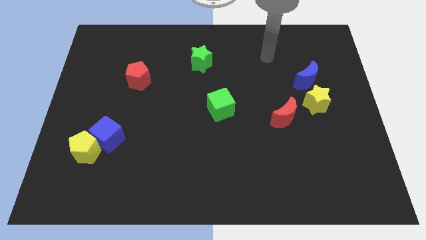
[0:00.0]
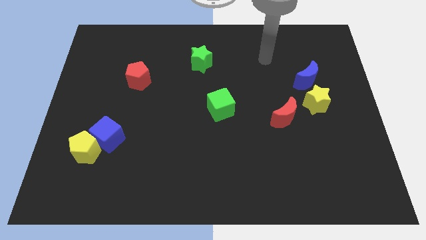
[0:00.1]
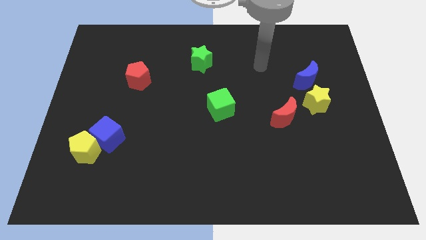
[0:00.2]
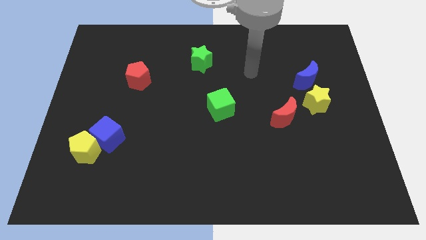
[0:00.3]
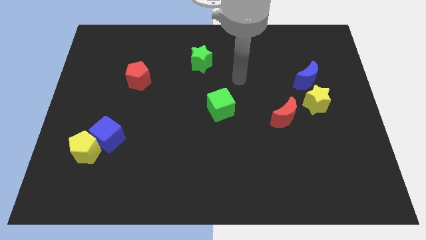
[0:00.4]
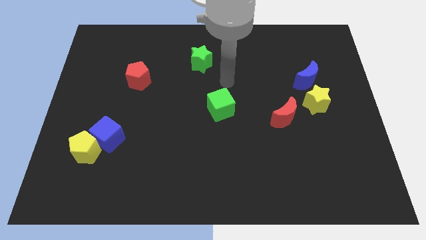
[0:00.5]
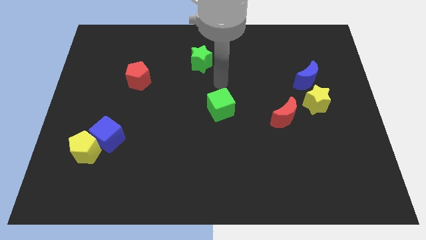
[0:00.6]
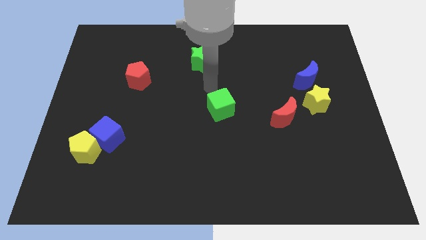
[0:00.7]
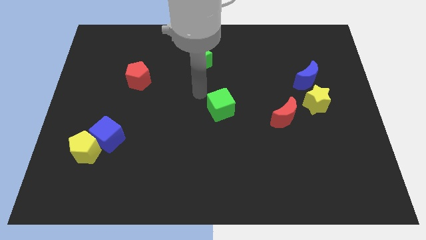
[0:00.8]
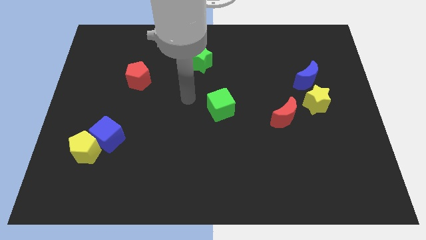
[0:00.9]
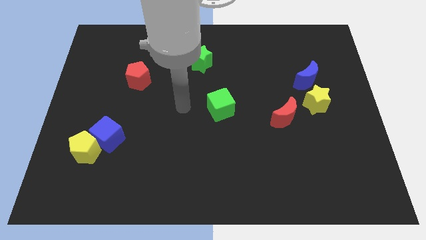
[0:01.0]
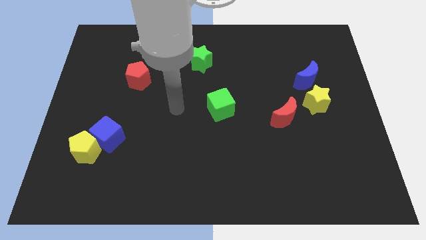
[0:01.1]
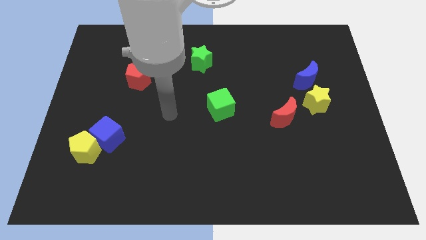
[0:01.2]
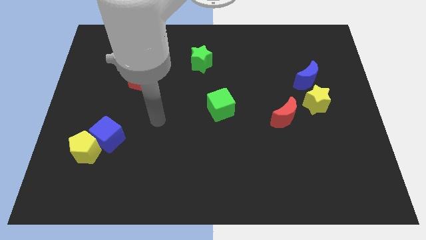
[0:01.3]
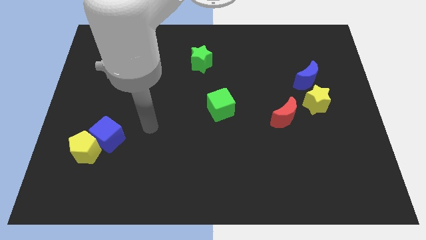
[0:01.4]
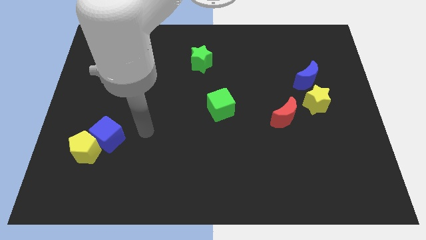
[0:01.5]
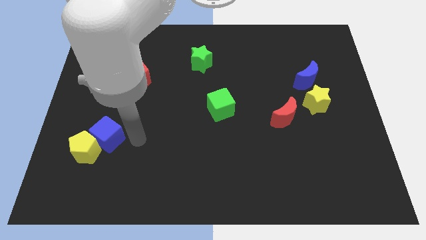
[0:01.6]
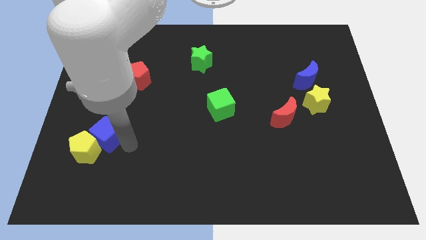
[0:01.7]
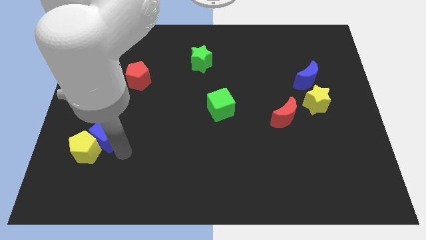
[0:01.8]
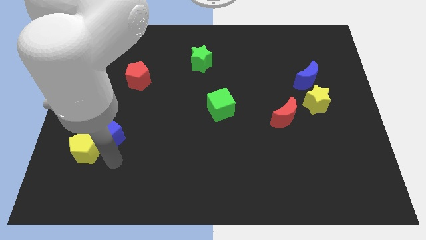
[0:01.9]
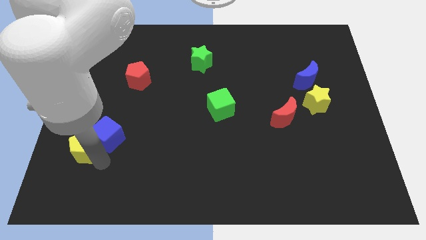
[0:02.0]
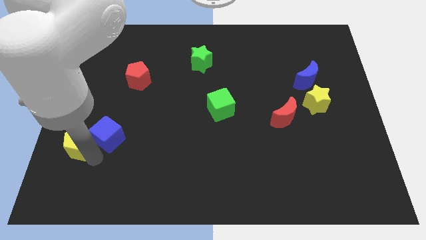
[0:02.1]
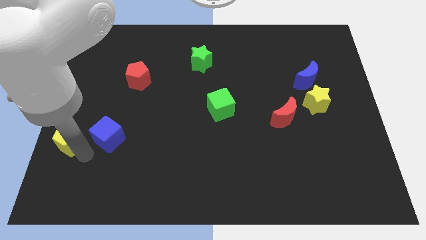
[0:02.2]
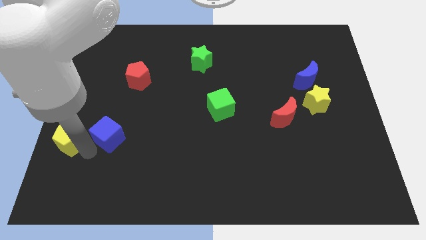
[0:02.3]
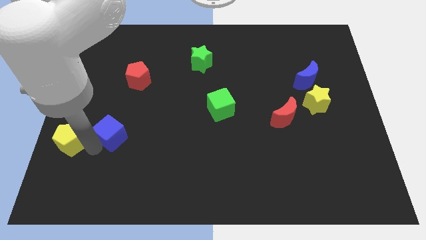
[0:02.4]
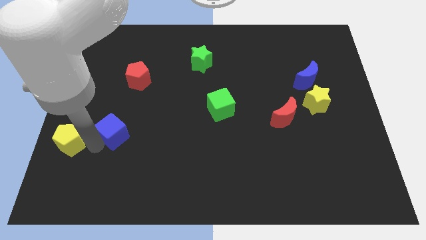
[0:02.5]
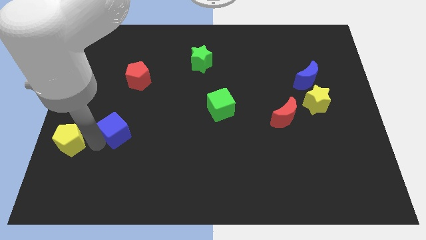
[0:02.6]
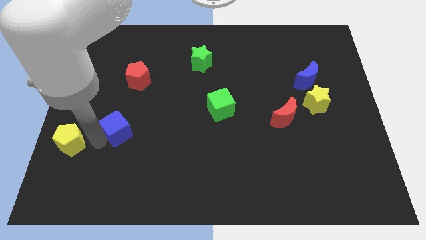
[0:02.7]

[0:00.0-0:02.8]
pull the blue cube apart from the yellow pentagon

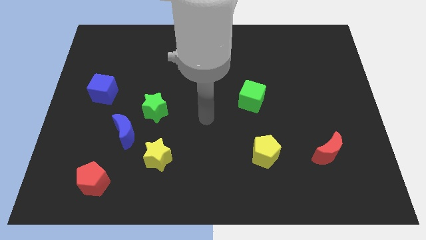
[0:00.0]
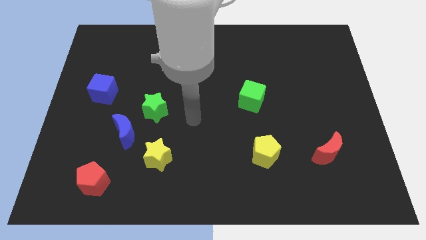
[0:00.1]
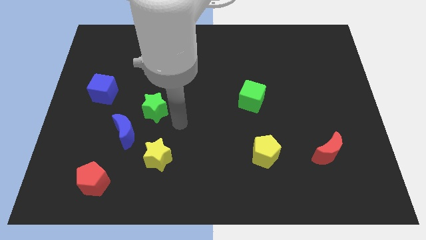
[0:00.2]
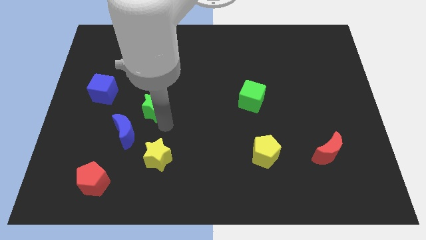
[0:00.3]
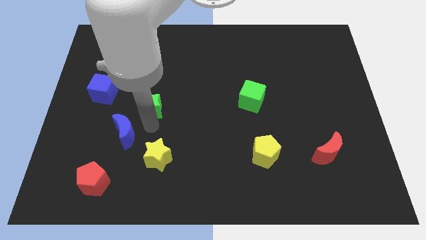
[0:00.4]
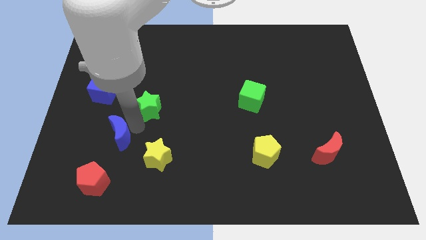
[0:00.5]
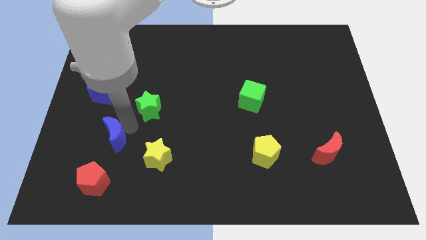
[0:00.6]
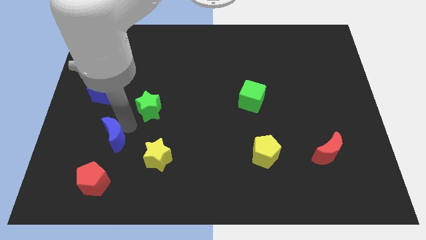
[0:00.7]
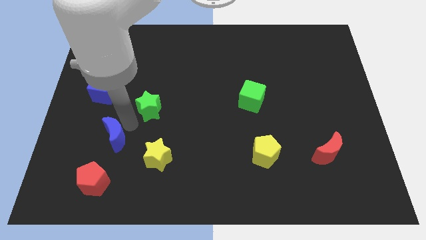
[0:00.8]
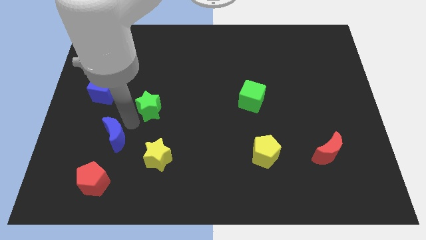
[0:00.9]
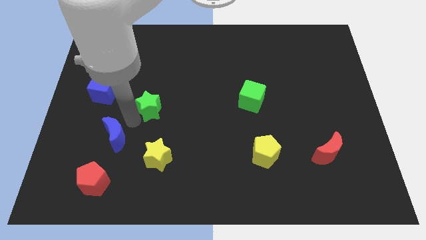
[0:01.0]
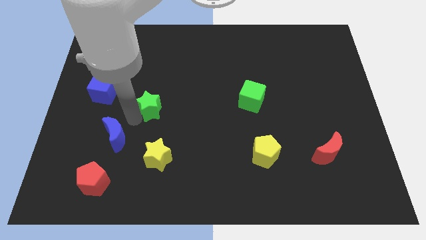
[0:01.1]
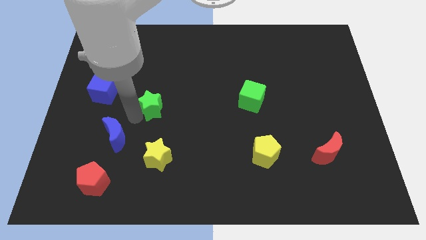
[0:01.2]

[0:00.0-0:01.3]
pull the green star apart from the blue moon

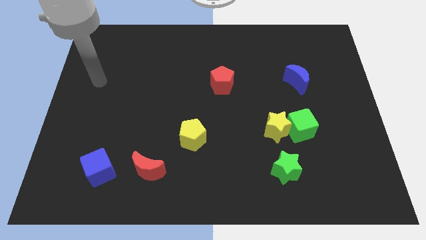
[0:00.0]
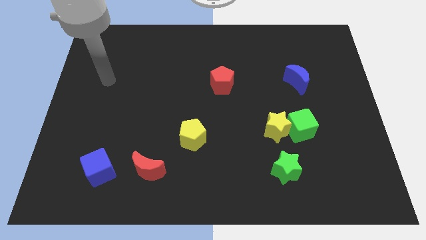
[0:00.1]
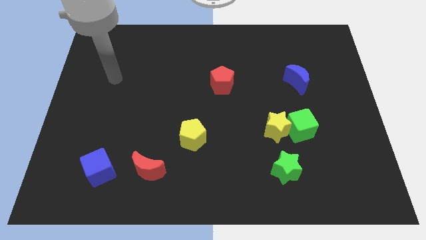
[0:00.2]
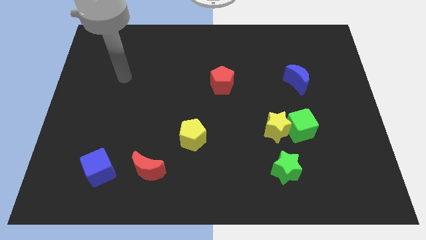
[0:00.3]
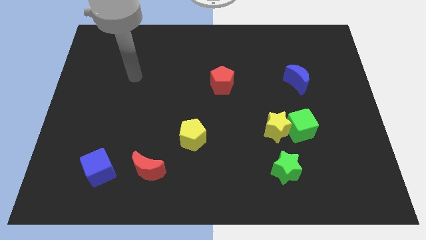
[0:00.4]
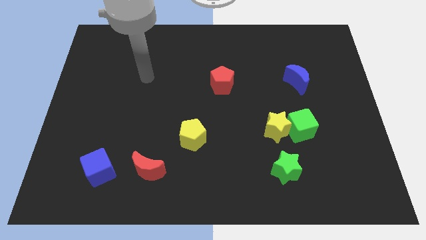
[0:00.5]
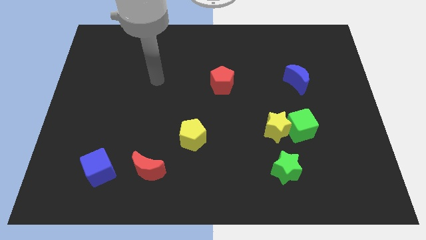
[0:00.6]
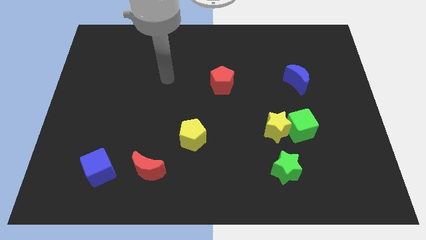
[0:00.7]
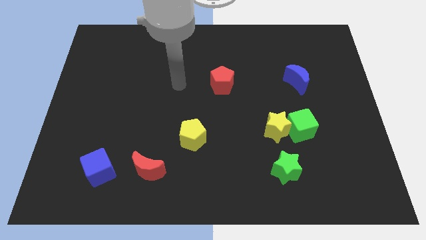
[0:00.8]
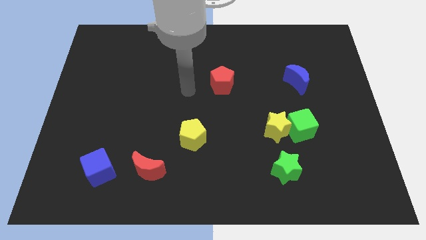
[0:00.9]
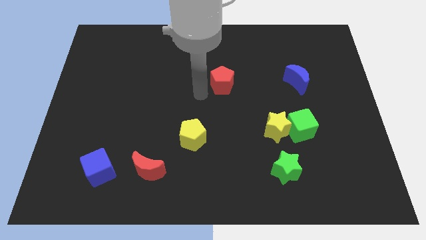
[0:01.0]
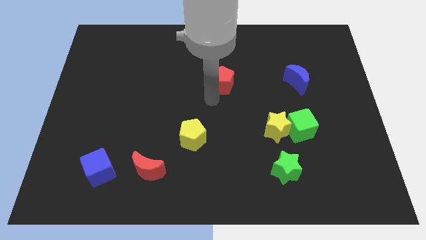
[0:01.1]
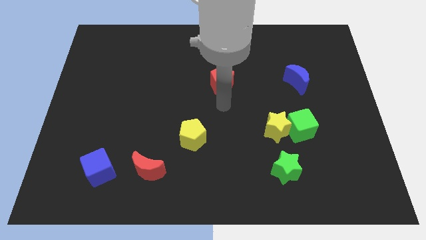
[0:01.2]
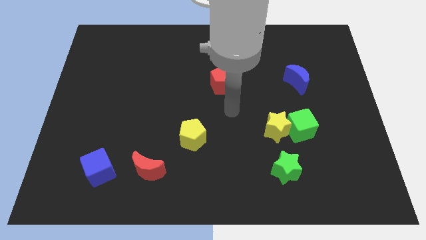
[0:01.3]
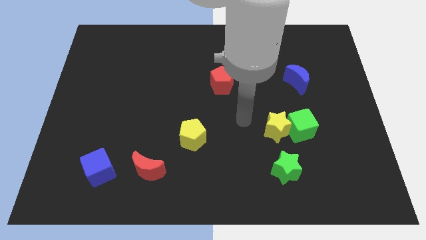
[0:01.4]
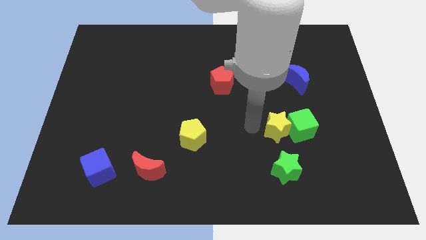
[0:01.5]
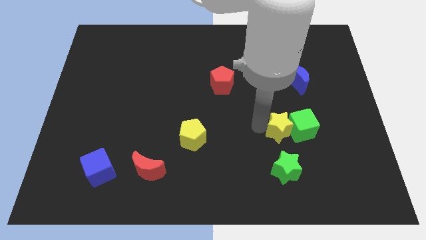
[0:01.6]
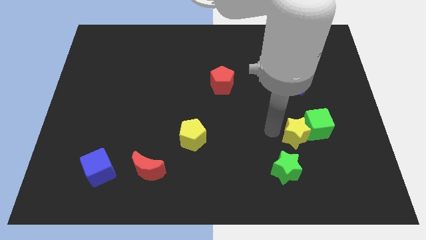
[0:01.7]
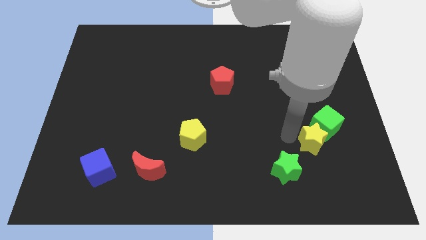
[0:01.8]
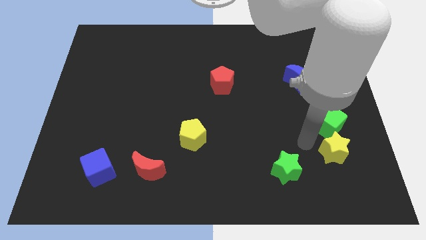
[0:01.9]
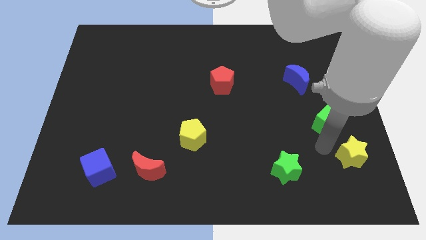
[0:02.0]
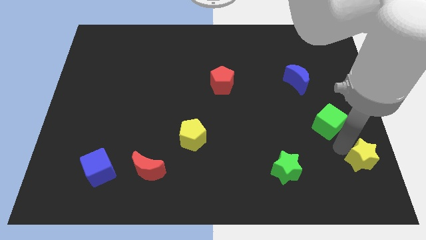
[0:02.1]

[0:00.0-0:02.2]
pull the green cube apart from the yellow star

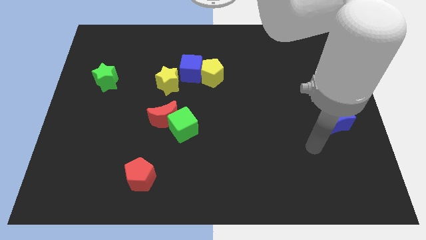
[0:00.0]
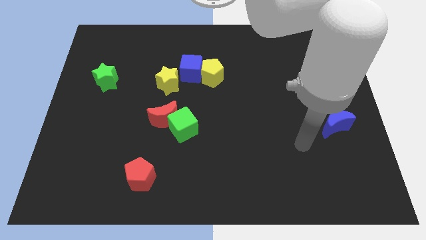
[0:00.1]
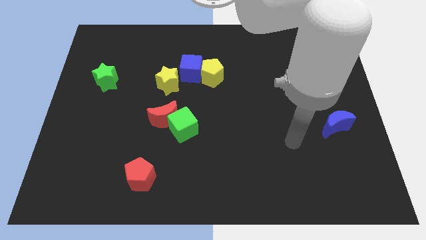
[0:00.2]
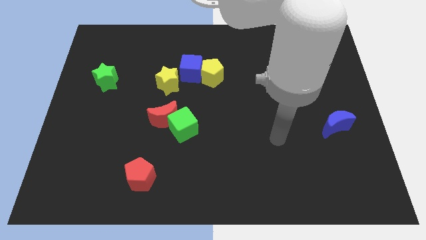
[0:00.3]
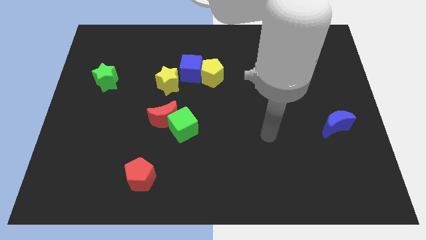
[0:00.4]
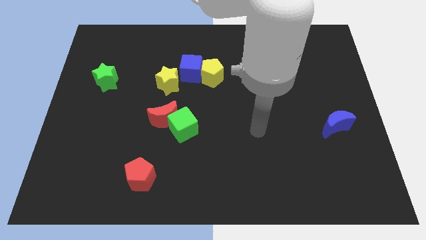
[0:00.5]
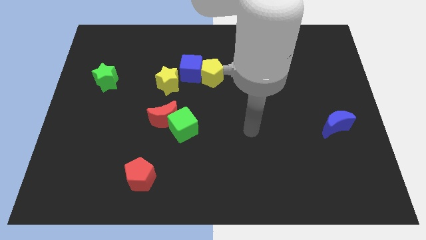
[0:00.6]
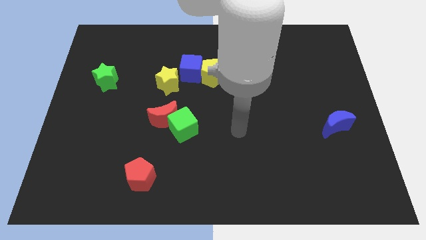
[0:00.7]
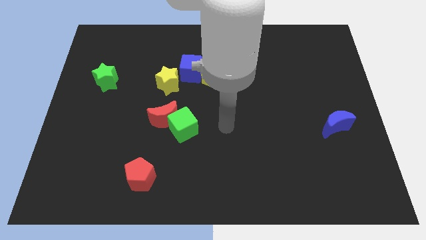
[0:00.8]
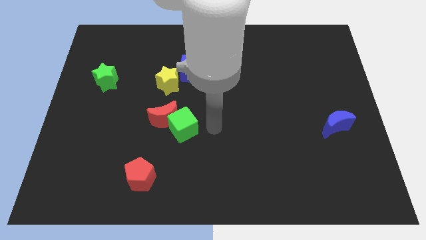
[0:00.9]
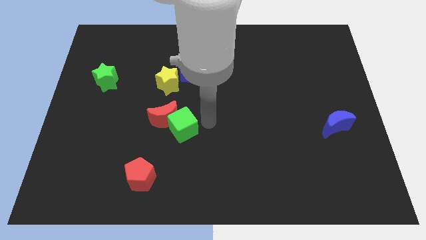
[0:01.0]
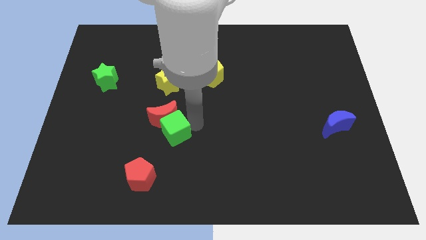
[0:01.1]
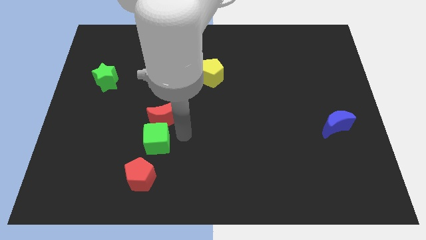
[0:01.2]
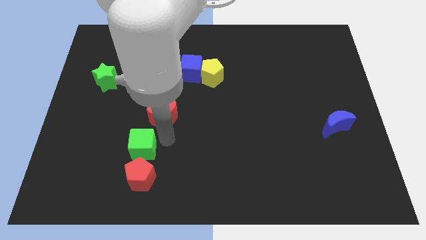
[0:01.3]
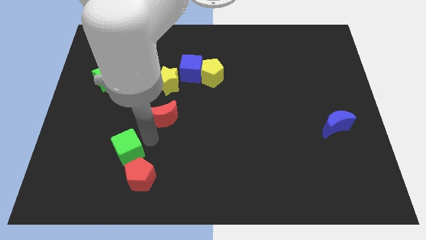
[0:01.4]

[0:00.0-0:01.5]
move the red moon away from the green cube

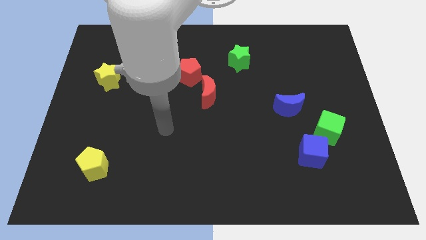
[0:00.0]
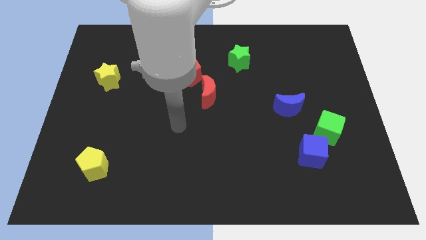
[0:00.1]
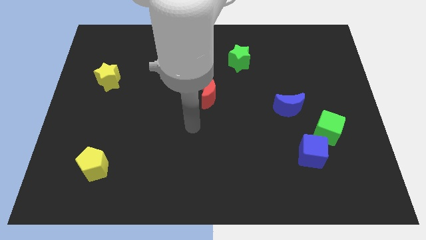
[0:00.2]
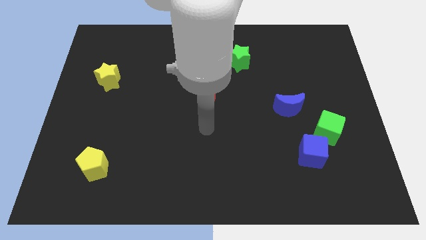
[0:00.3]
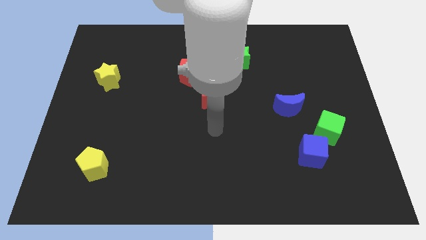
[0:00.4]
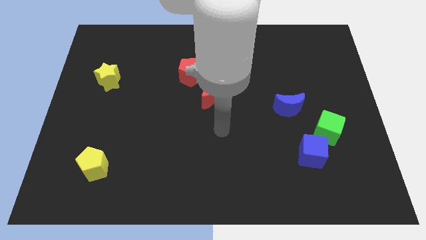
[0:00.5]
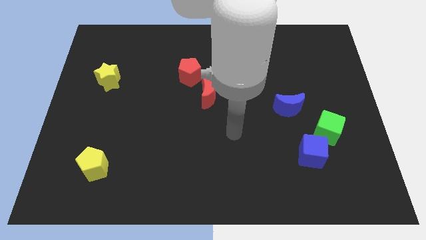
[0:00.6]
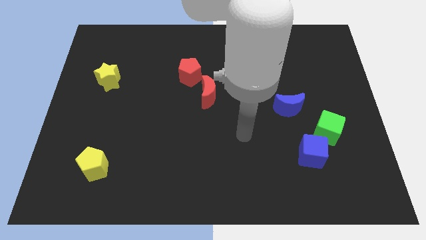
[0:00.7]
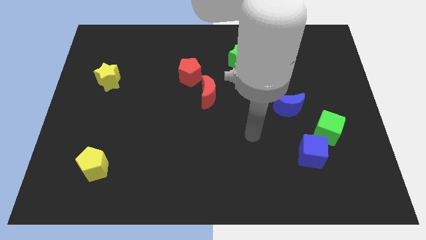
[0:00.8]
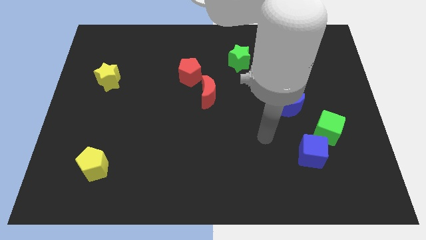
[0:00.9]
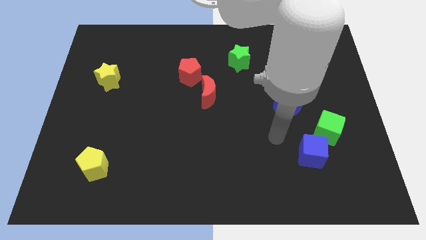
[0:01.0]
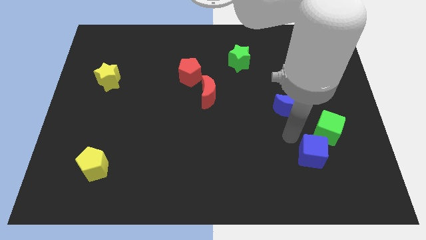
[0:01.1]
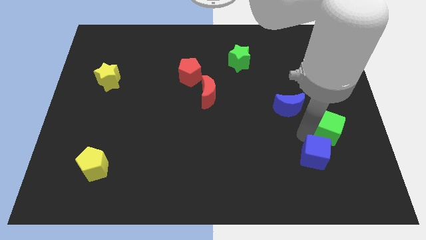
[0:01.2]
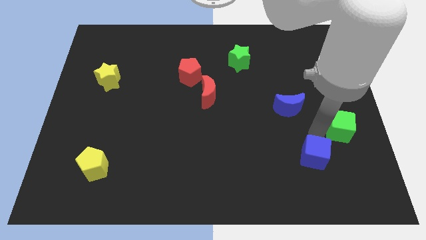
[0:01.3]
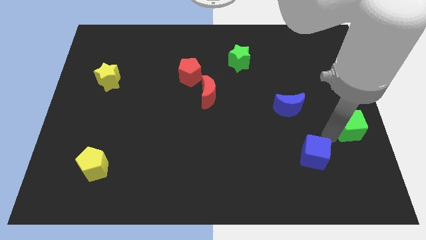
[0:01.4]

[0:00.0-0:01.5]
move the blue cube away from the green cube
